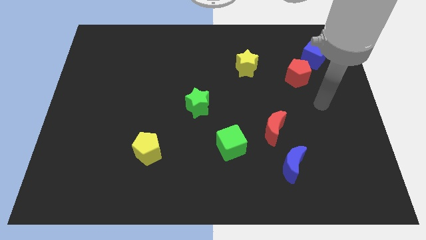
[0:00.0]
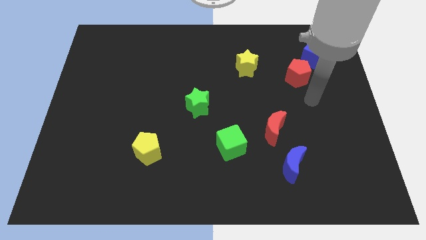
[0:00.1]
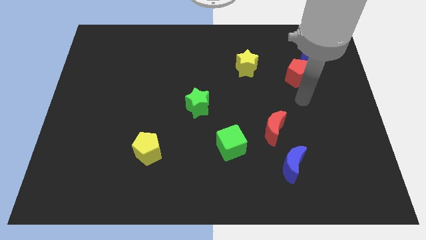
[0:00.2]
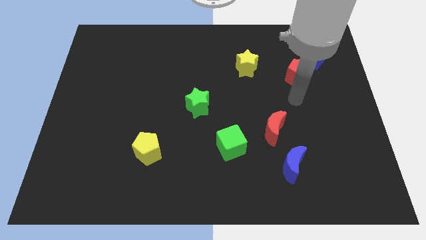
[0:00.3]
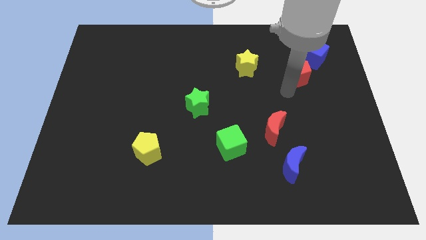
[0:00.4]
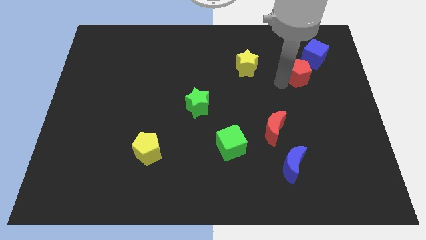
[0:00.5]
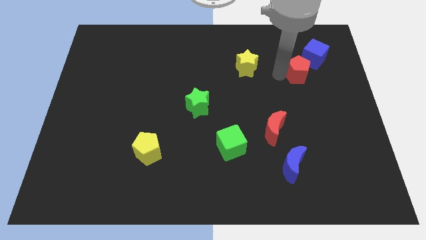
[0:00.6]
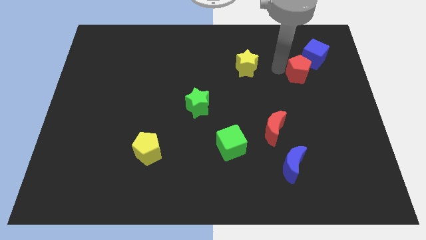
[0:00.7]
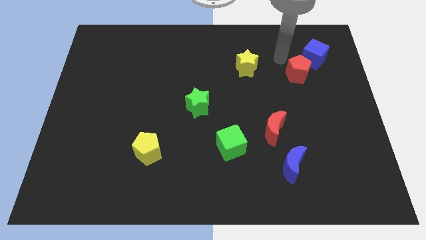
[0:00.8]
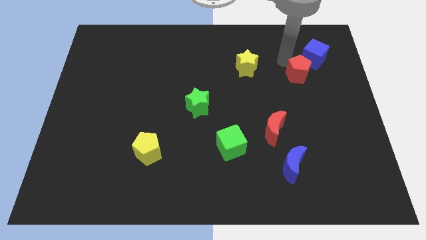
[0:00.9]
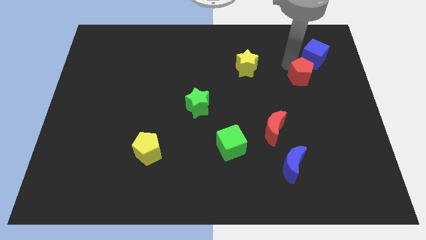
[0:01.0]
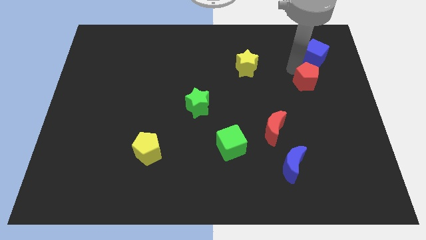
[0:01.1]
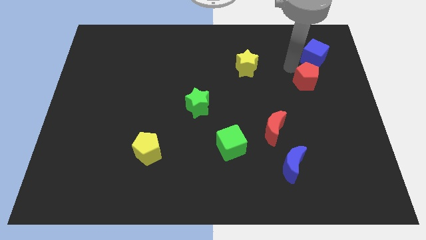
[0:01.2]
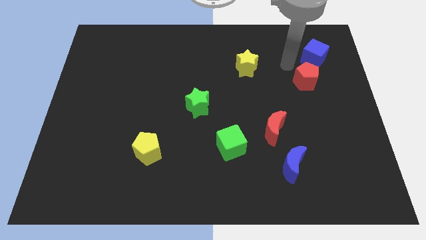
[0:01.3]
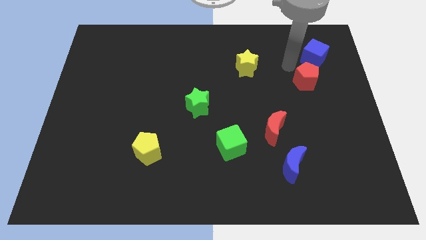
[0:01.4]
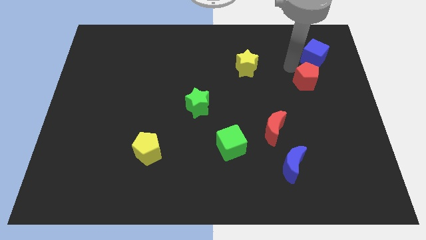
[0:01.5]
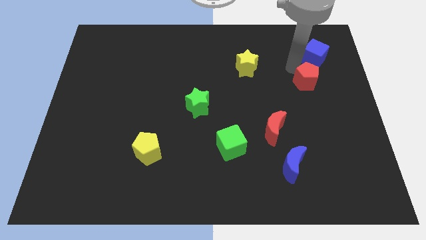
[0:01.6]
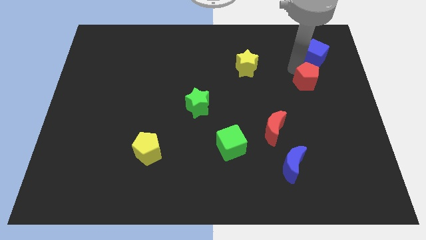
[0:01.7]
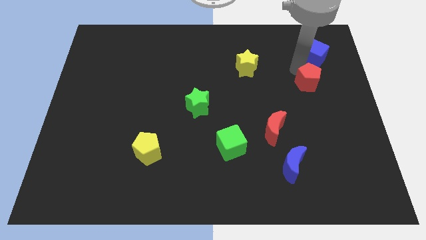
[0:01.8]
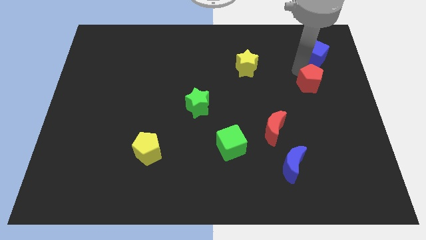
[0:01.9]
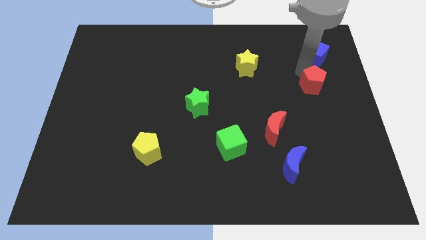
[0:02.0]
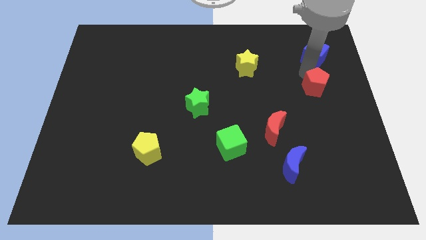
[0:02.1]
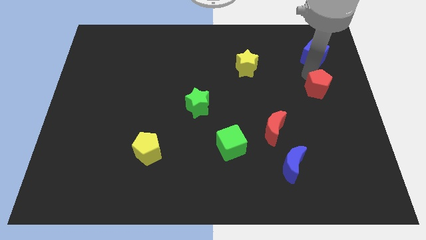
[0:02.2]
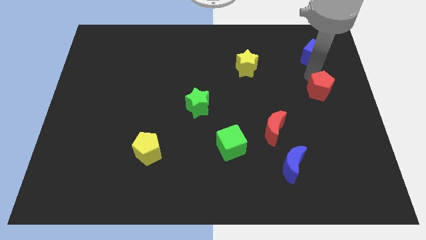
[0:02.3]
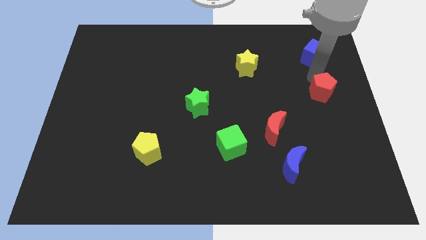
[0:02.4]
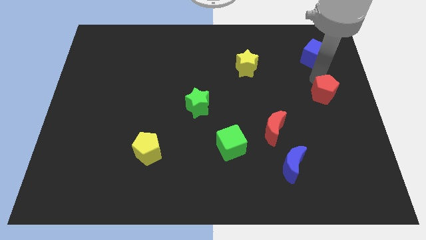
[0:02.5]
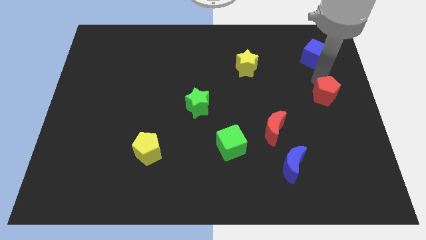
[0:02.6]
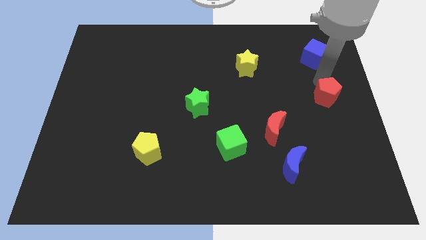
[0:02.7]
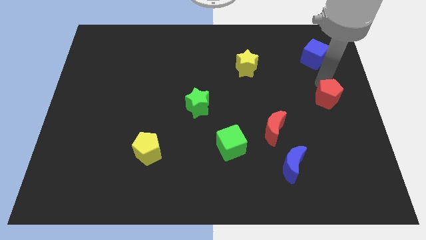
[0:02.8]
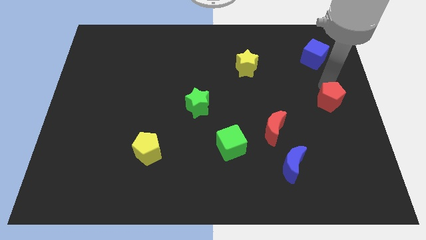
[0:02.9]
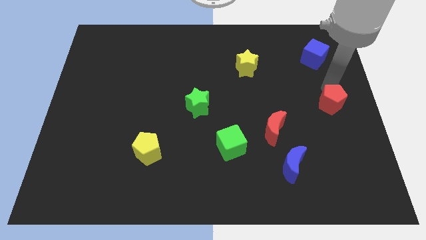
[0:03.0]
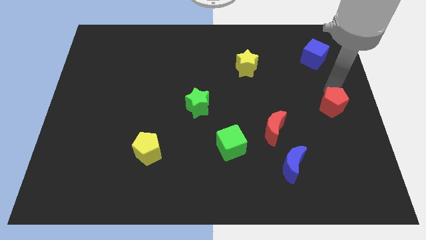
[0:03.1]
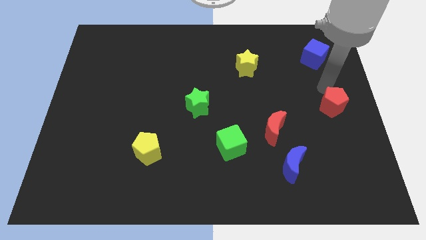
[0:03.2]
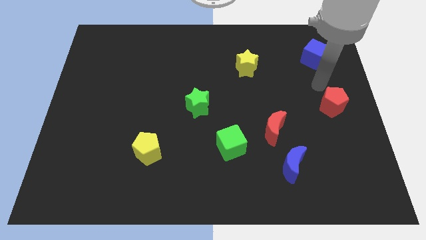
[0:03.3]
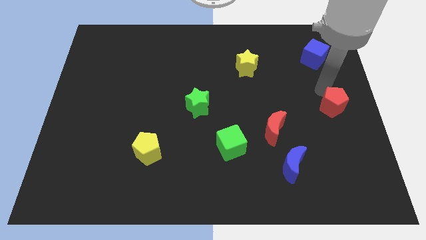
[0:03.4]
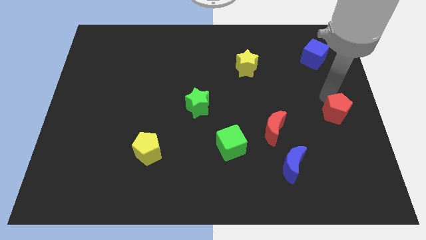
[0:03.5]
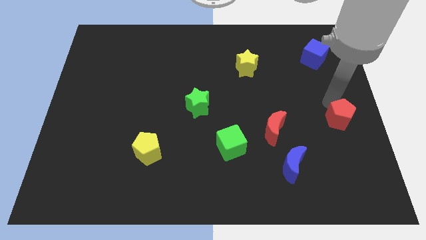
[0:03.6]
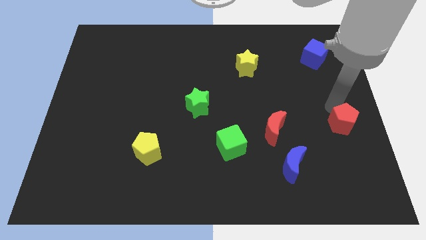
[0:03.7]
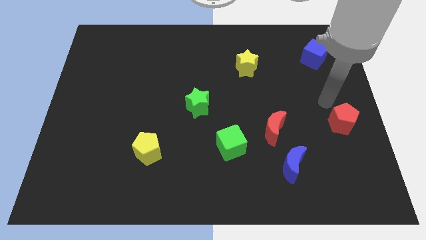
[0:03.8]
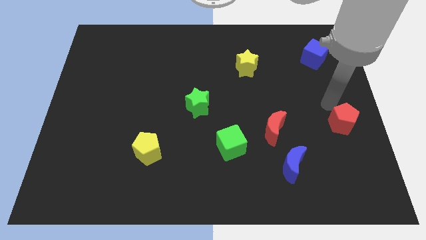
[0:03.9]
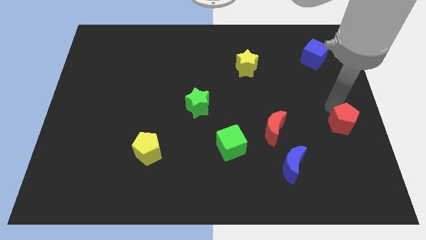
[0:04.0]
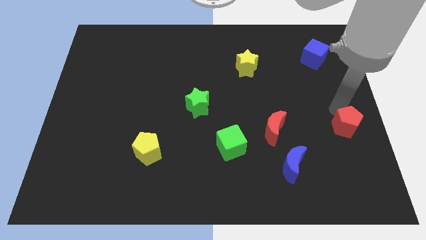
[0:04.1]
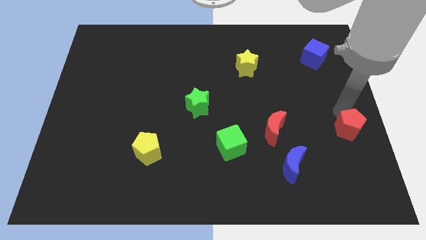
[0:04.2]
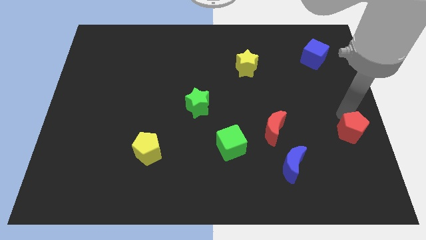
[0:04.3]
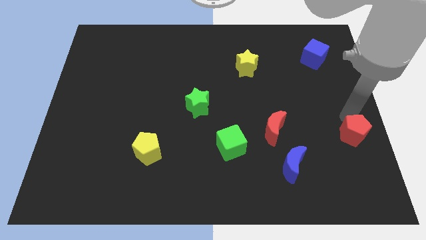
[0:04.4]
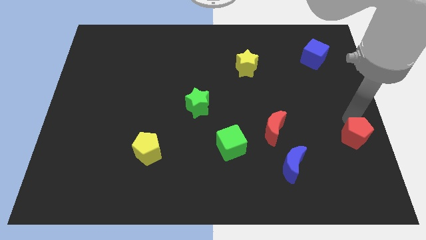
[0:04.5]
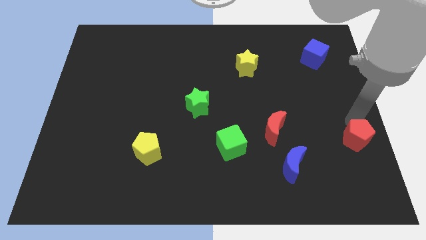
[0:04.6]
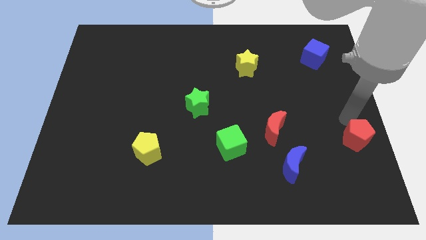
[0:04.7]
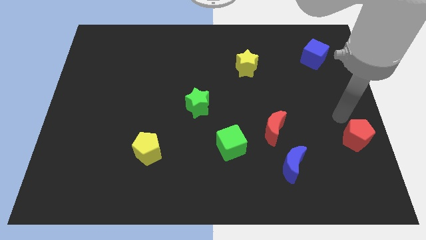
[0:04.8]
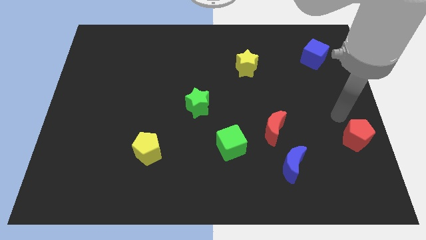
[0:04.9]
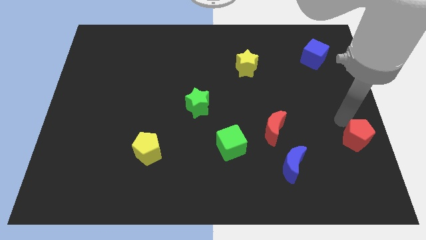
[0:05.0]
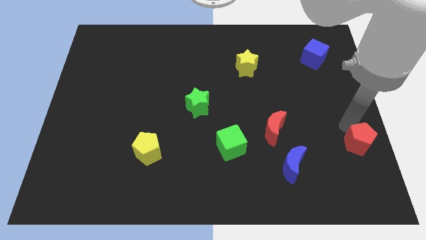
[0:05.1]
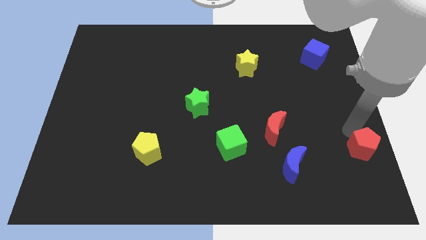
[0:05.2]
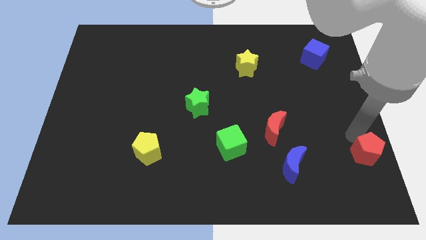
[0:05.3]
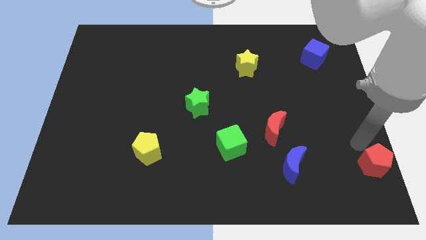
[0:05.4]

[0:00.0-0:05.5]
put the red pentagon to the bottom right corner

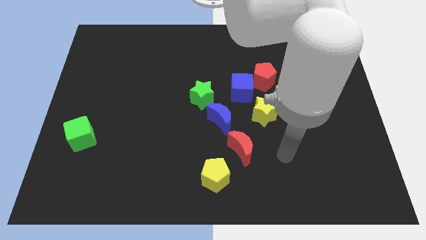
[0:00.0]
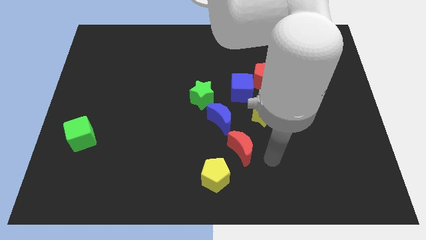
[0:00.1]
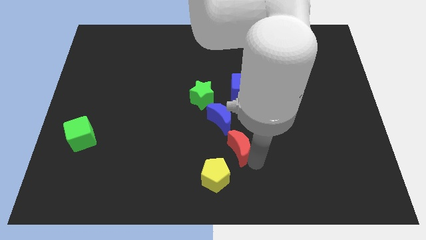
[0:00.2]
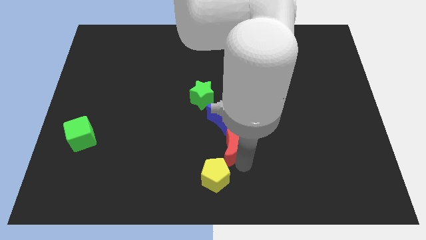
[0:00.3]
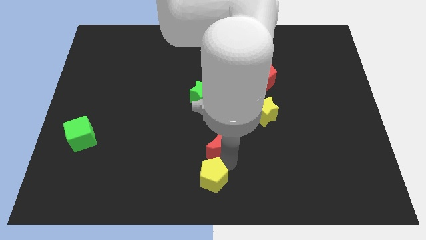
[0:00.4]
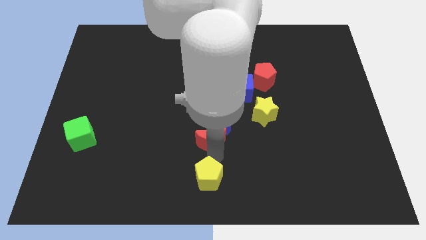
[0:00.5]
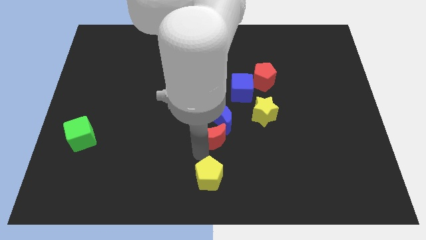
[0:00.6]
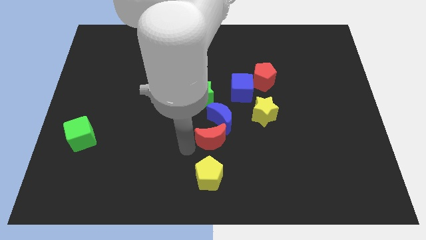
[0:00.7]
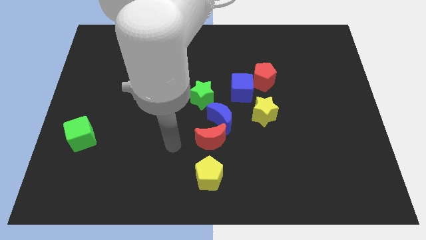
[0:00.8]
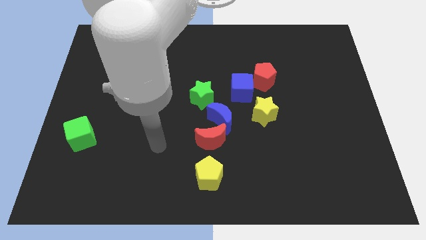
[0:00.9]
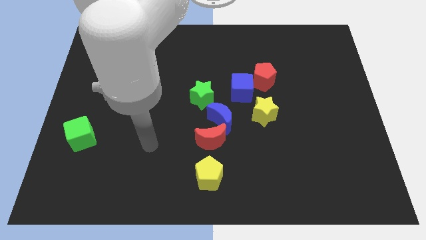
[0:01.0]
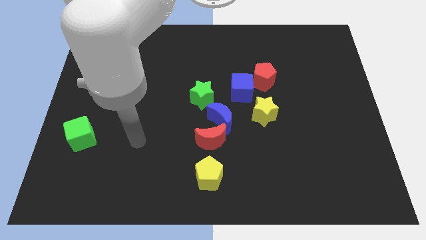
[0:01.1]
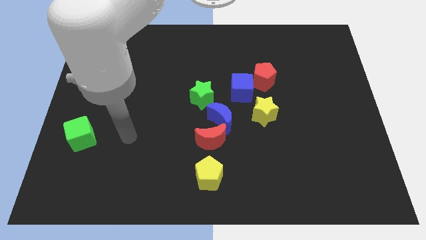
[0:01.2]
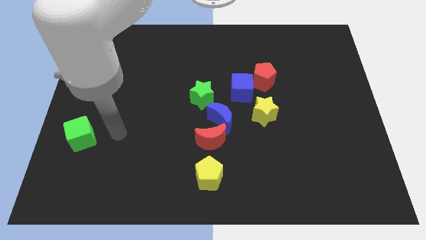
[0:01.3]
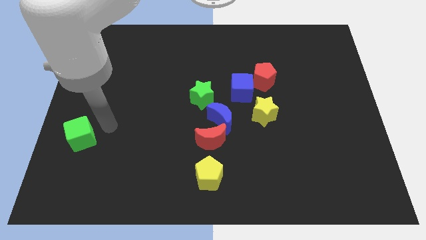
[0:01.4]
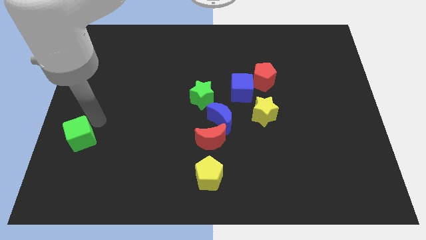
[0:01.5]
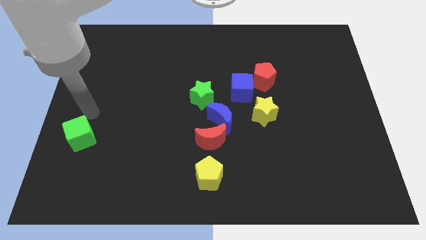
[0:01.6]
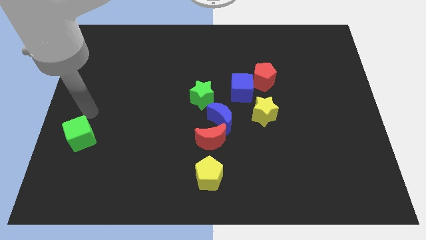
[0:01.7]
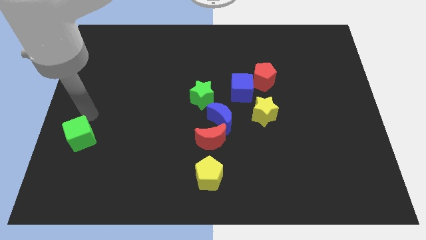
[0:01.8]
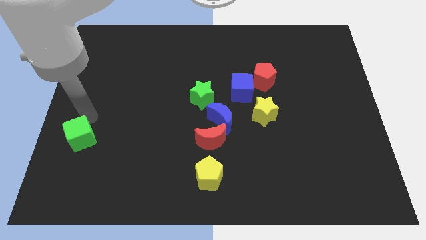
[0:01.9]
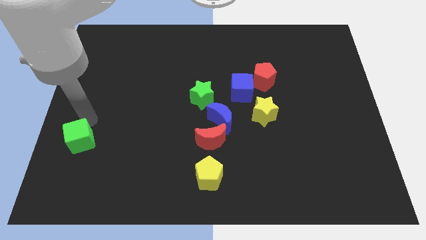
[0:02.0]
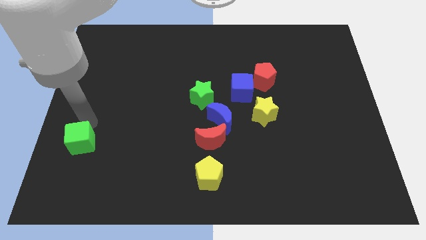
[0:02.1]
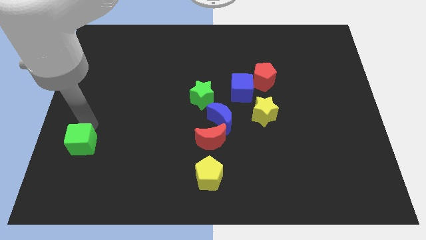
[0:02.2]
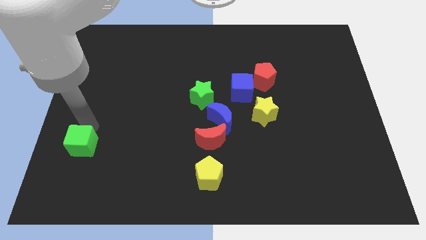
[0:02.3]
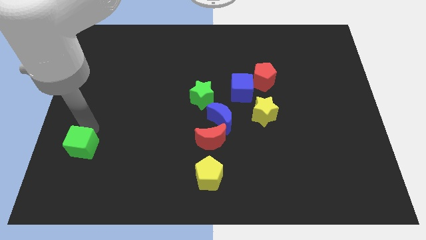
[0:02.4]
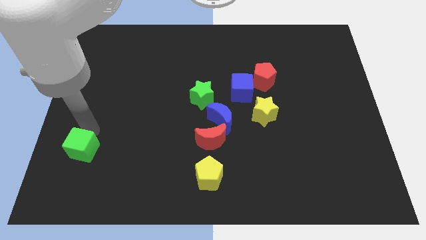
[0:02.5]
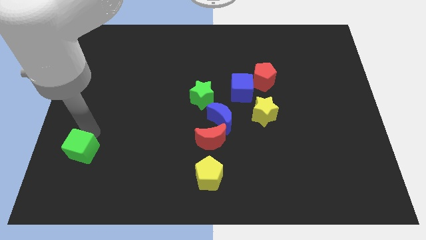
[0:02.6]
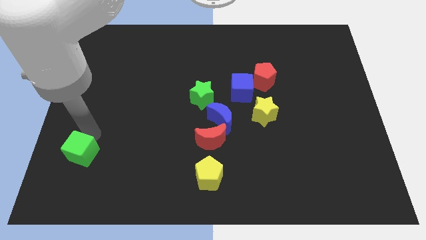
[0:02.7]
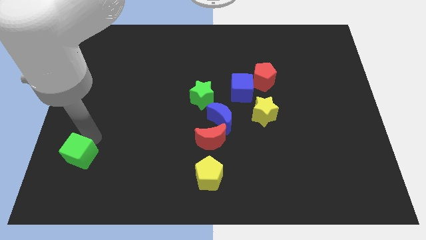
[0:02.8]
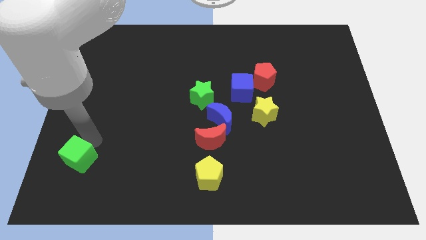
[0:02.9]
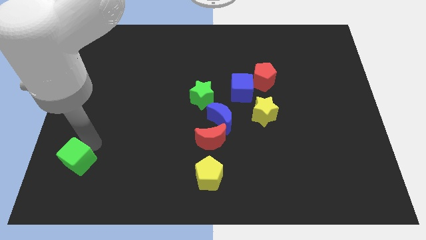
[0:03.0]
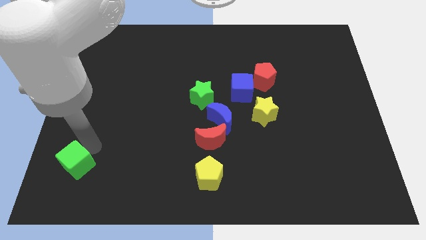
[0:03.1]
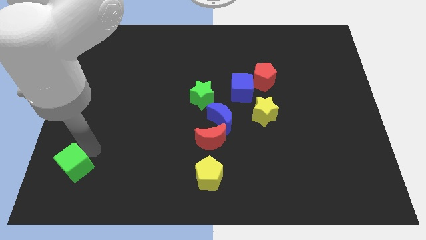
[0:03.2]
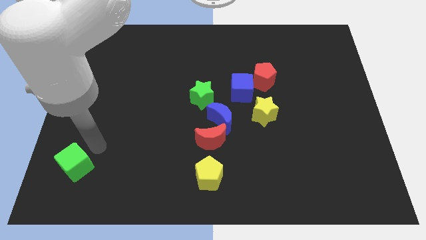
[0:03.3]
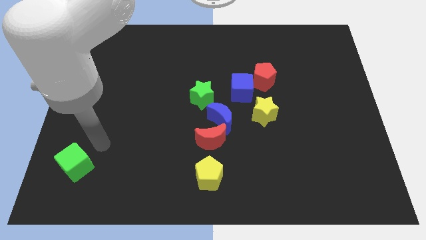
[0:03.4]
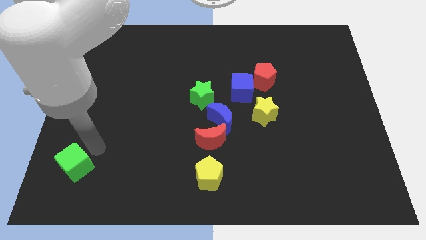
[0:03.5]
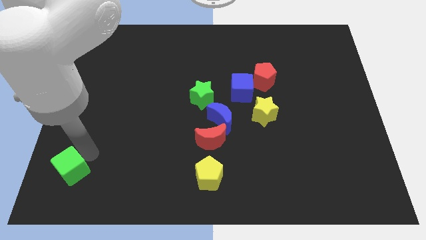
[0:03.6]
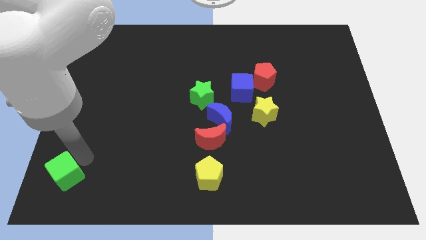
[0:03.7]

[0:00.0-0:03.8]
move the green cube to the lower left corner
